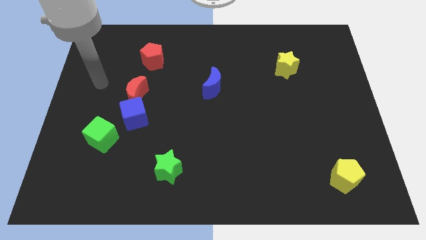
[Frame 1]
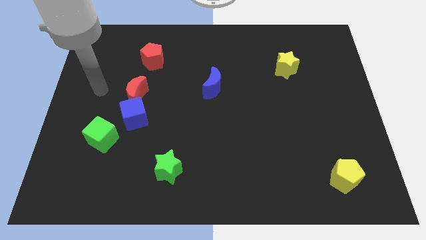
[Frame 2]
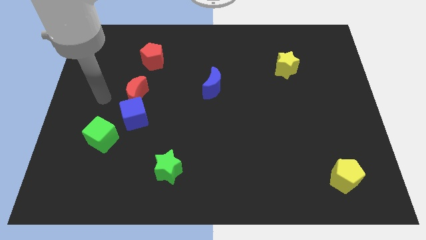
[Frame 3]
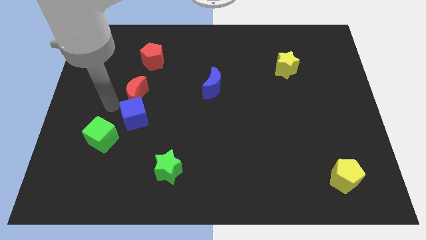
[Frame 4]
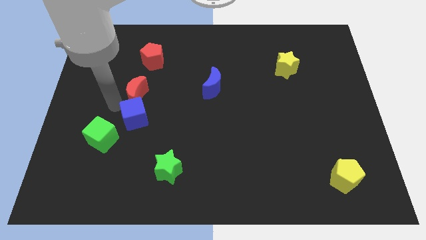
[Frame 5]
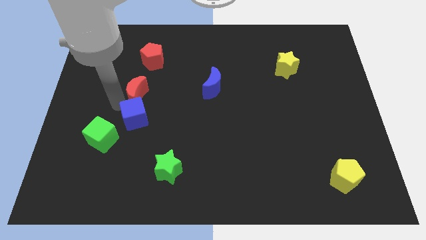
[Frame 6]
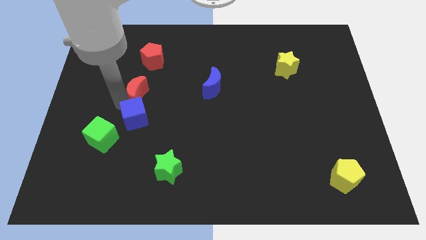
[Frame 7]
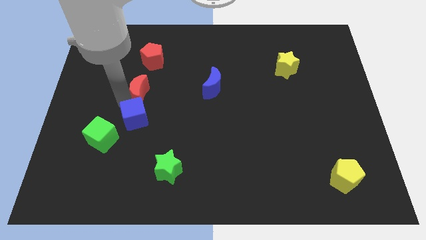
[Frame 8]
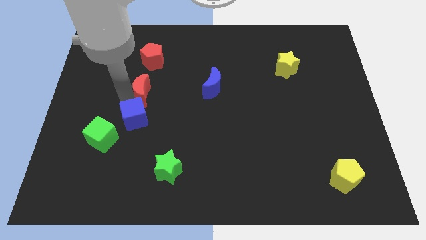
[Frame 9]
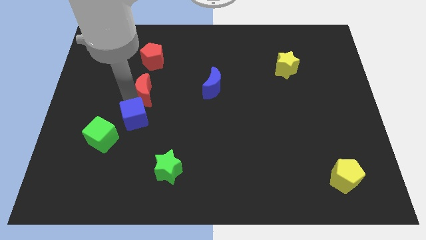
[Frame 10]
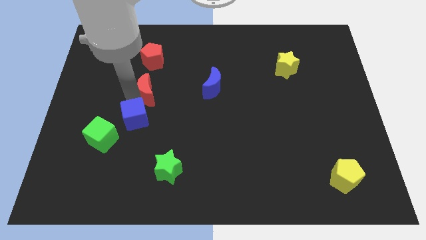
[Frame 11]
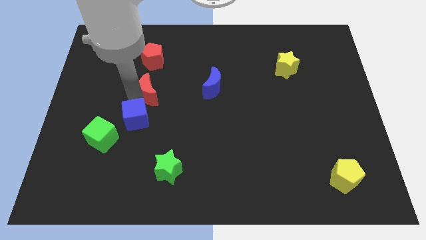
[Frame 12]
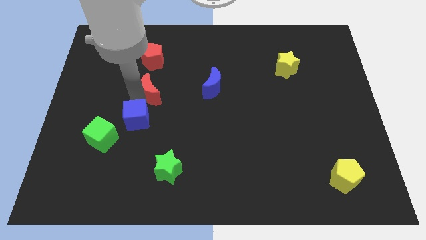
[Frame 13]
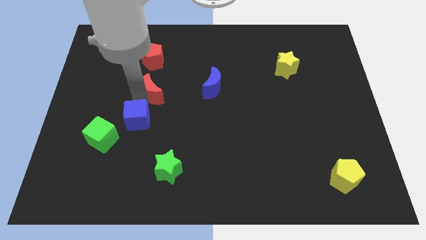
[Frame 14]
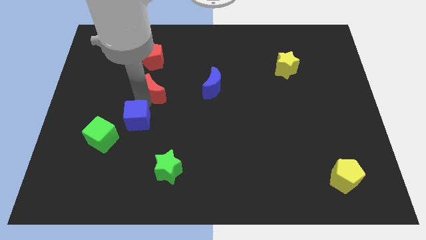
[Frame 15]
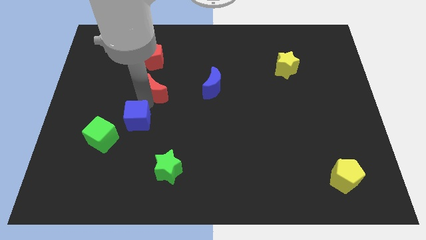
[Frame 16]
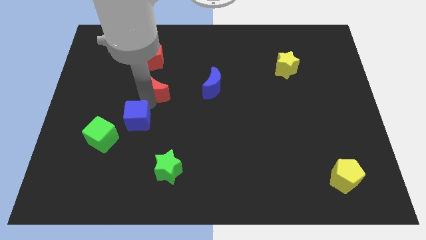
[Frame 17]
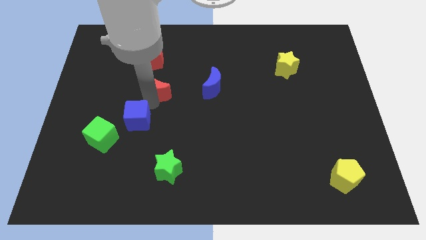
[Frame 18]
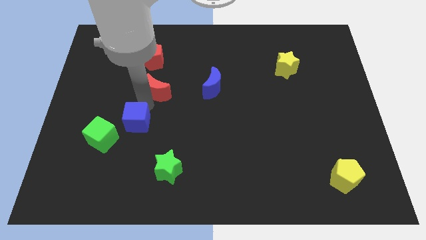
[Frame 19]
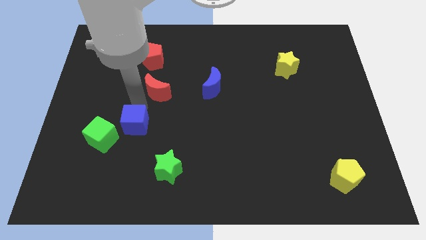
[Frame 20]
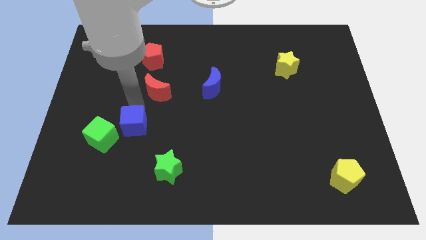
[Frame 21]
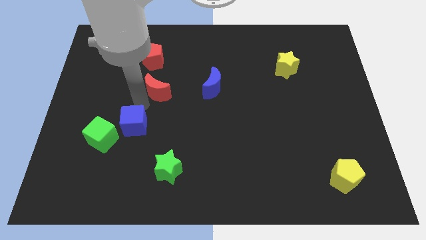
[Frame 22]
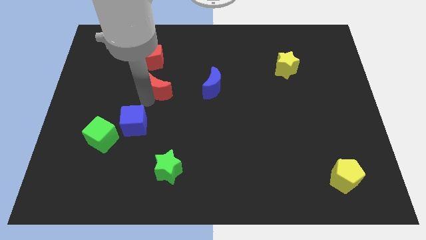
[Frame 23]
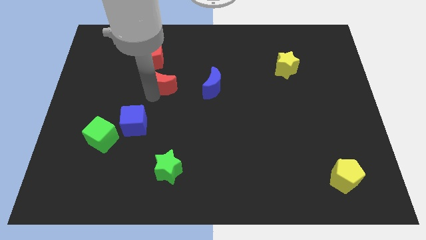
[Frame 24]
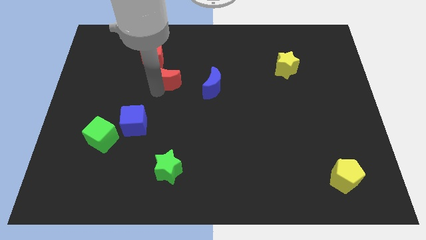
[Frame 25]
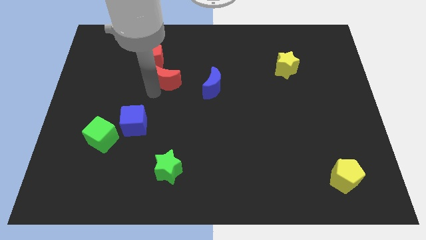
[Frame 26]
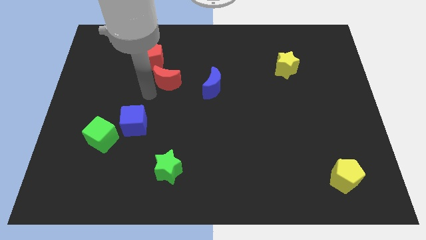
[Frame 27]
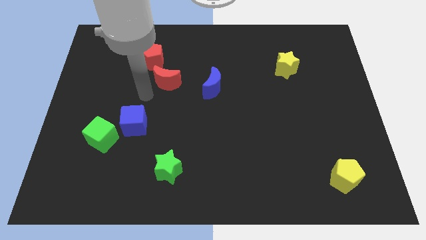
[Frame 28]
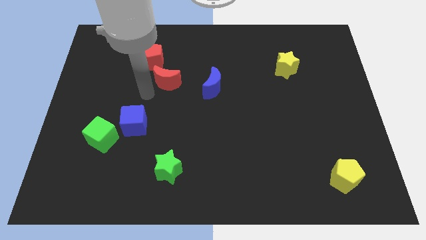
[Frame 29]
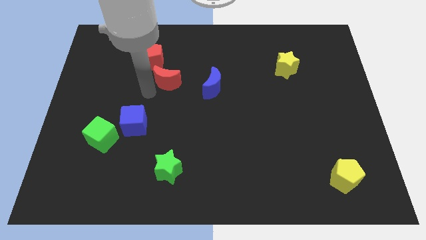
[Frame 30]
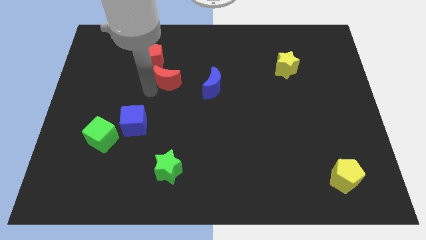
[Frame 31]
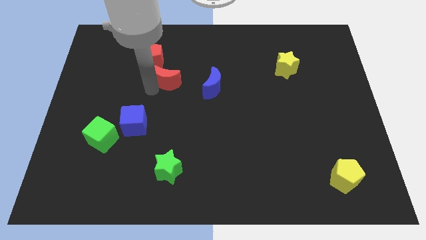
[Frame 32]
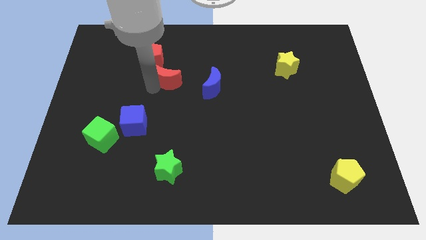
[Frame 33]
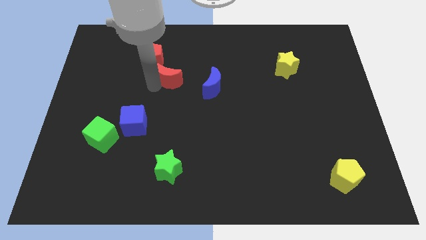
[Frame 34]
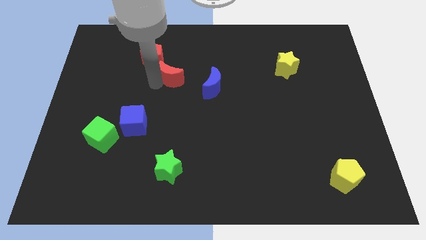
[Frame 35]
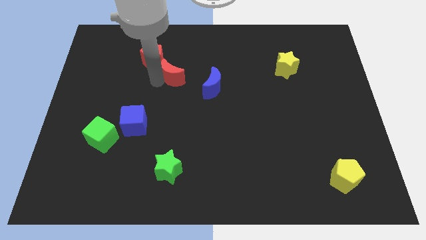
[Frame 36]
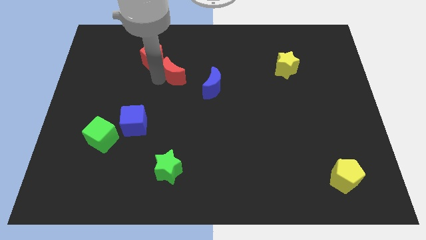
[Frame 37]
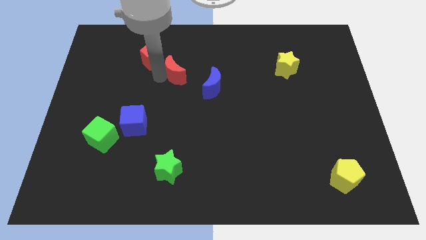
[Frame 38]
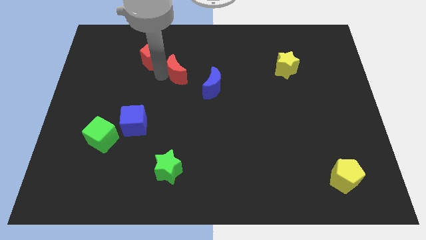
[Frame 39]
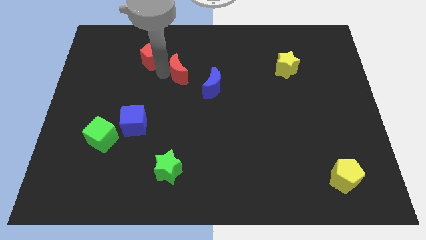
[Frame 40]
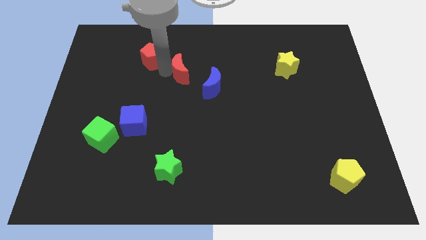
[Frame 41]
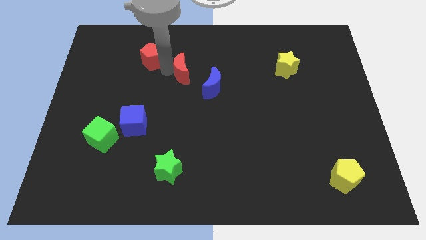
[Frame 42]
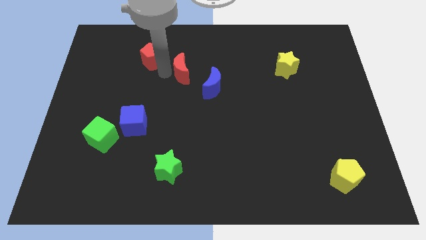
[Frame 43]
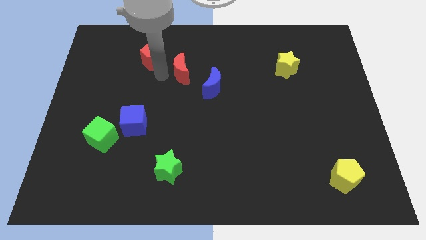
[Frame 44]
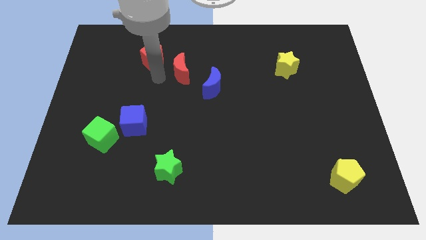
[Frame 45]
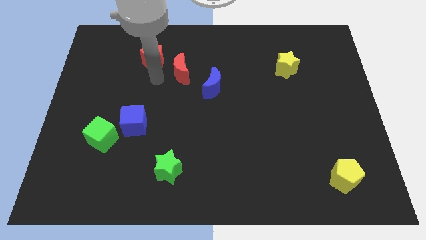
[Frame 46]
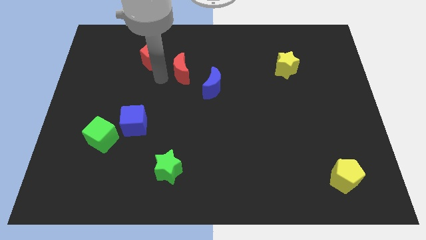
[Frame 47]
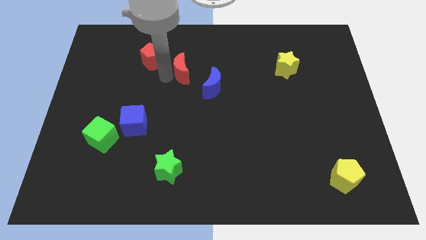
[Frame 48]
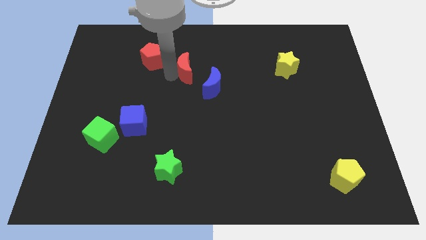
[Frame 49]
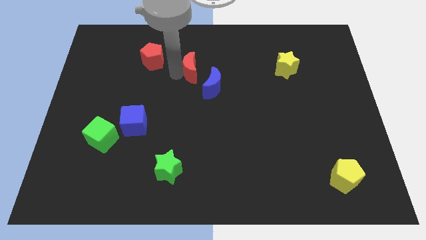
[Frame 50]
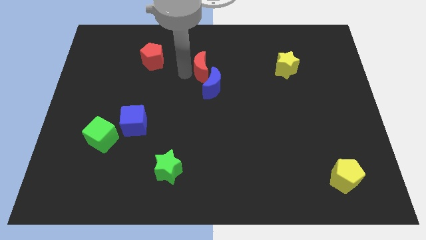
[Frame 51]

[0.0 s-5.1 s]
push the red moon to the top side of the blue moon

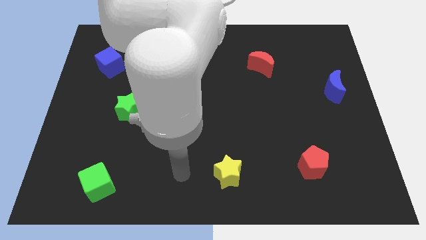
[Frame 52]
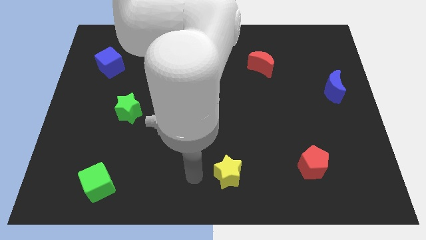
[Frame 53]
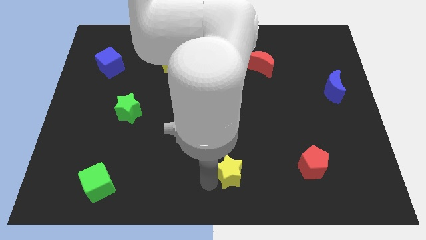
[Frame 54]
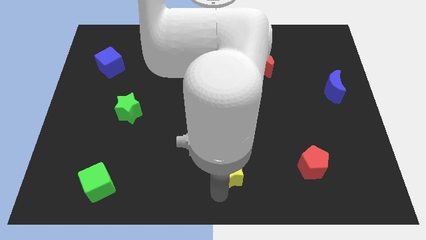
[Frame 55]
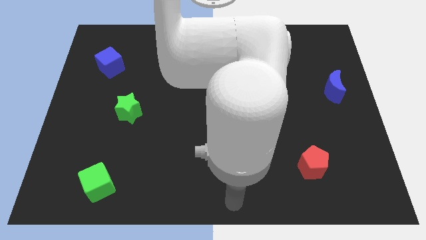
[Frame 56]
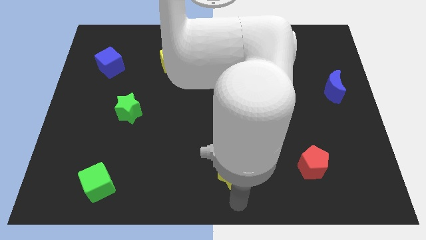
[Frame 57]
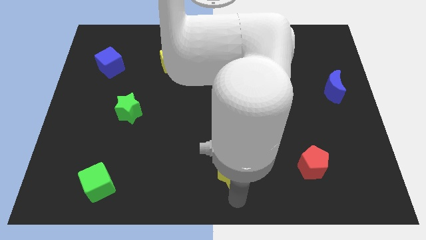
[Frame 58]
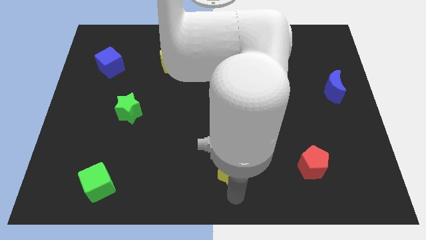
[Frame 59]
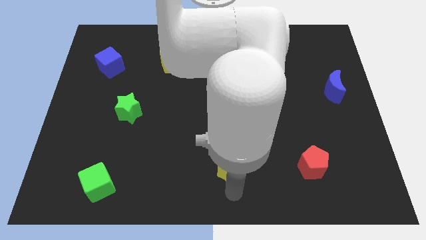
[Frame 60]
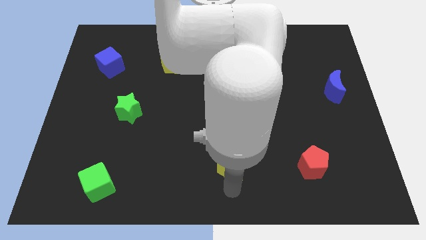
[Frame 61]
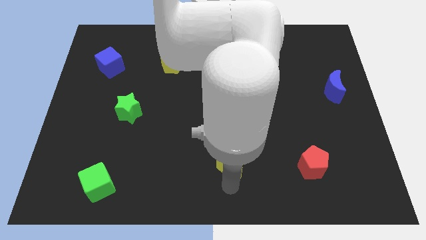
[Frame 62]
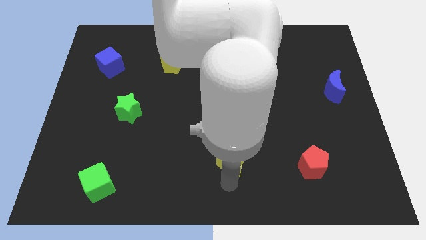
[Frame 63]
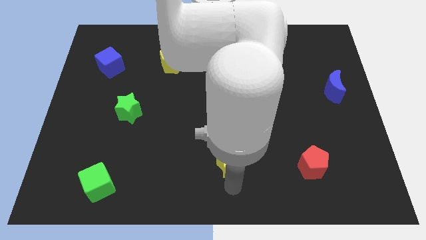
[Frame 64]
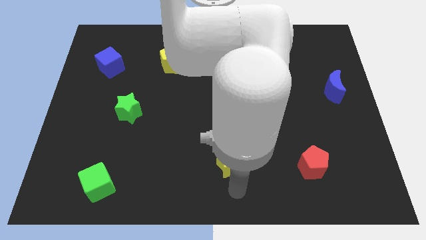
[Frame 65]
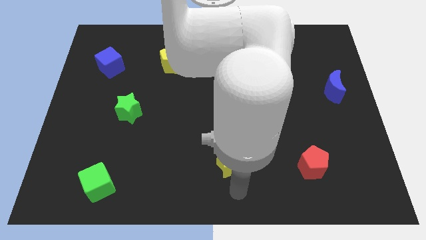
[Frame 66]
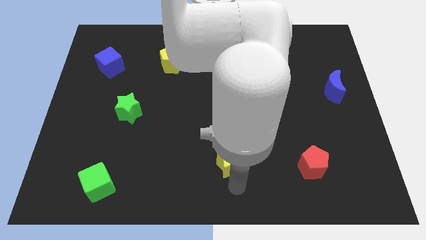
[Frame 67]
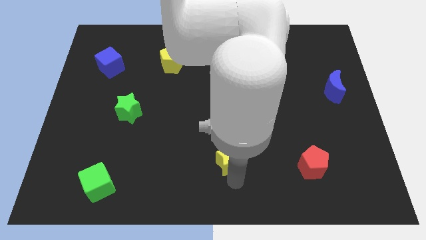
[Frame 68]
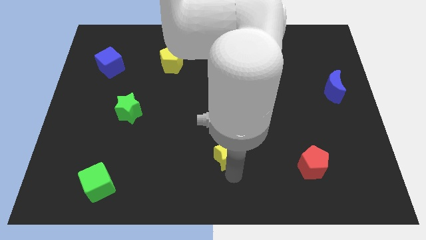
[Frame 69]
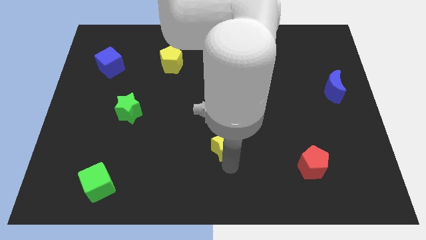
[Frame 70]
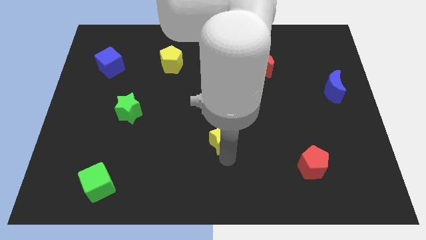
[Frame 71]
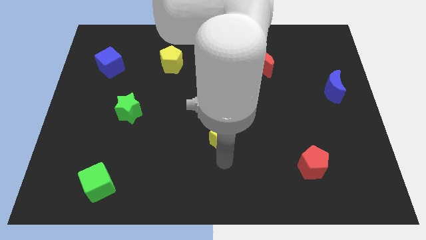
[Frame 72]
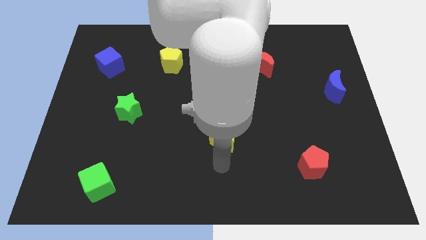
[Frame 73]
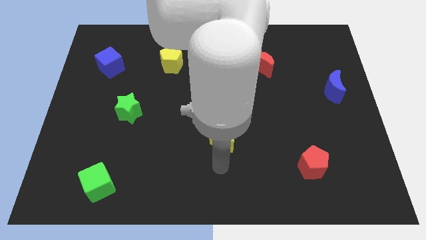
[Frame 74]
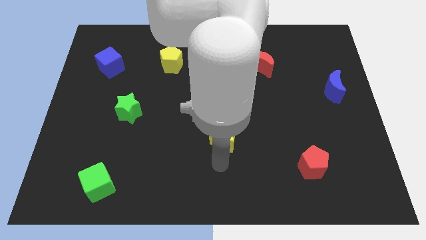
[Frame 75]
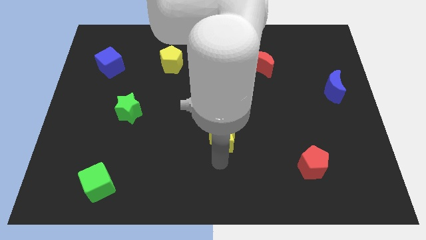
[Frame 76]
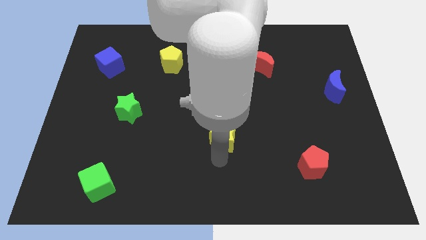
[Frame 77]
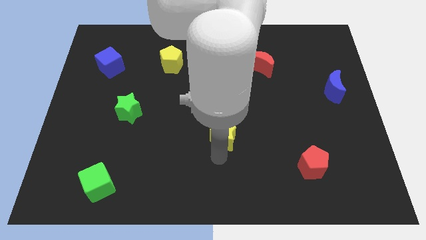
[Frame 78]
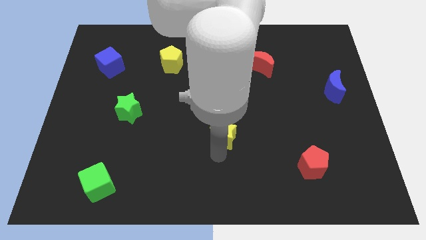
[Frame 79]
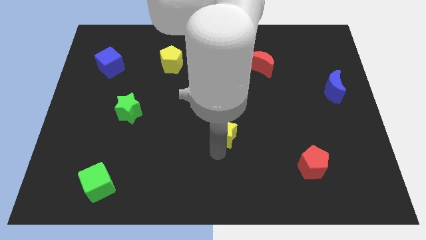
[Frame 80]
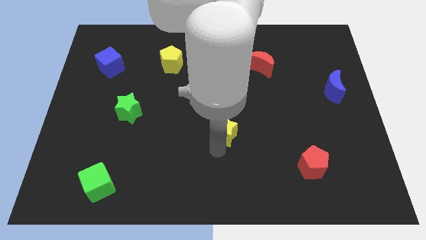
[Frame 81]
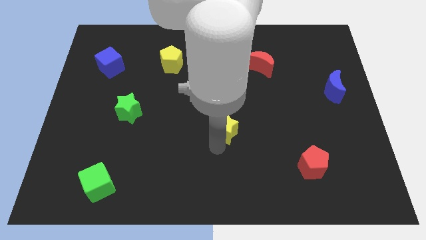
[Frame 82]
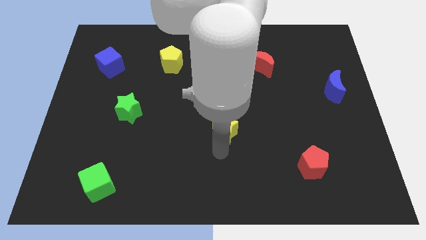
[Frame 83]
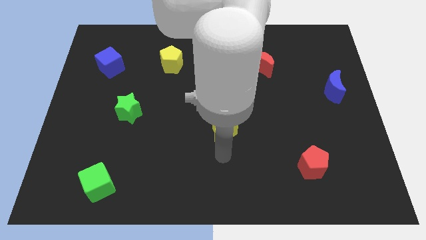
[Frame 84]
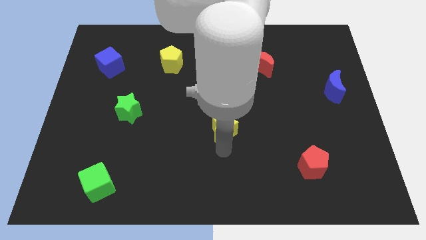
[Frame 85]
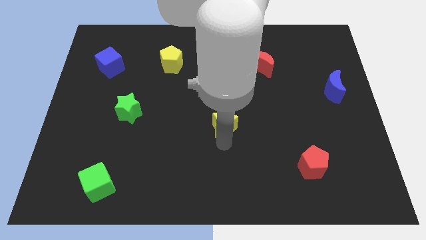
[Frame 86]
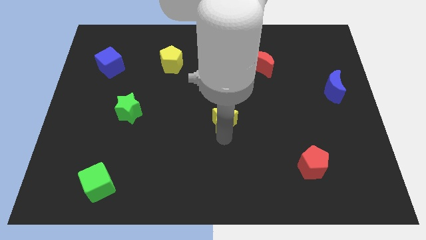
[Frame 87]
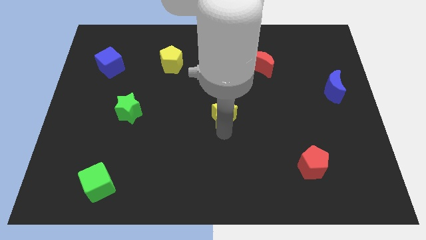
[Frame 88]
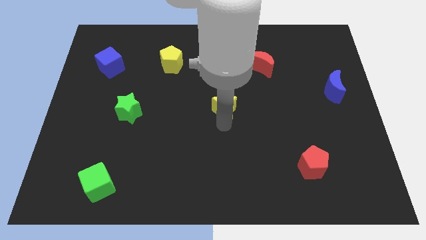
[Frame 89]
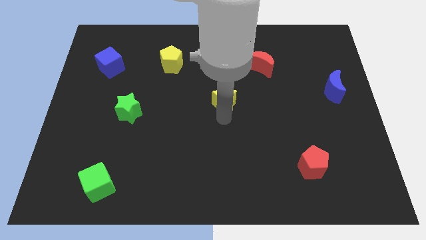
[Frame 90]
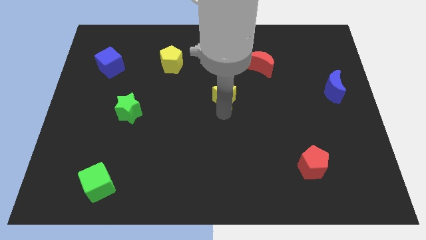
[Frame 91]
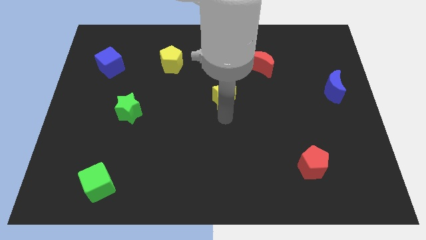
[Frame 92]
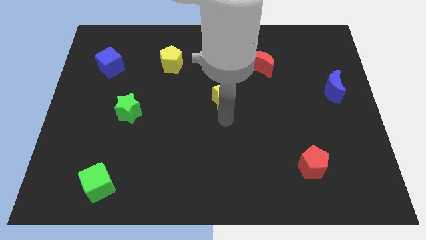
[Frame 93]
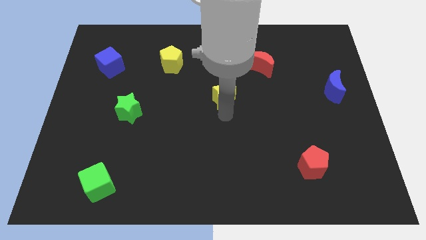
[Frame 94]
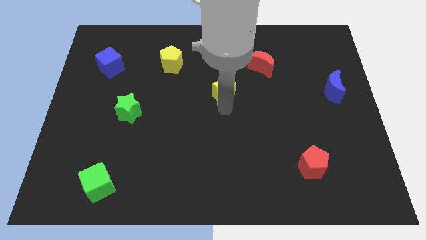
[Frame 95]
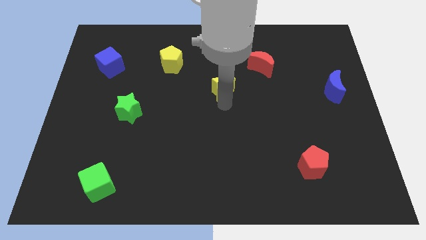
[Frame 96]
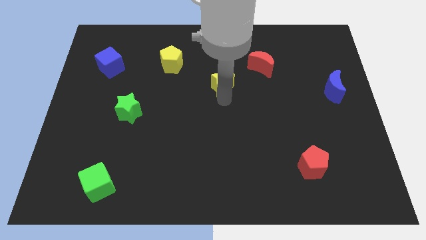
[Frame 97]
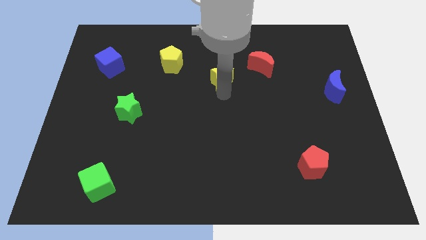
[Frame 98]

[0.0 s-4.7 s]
slide the yellow star to the left side of the red moon
